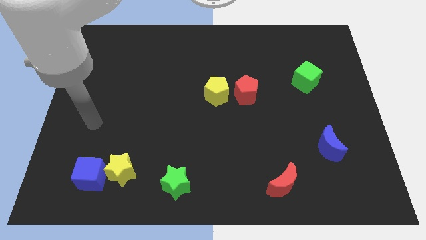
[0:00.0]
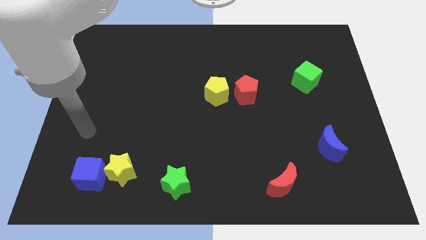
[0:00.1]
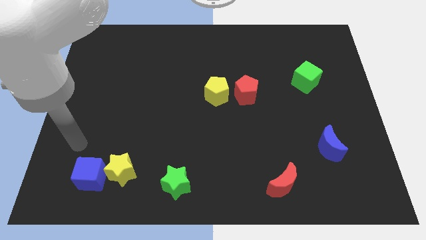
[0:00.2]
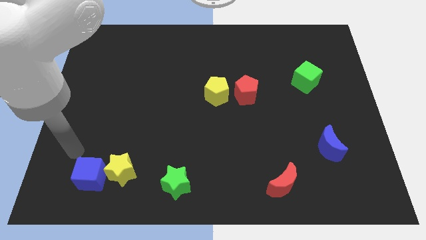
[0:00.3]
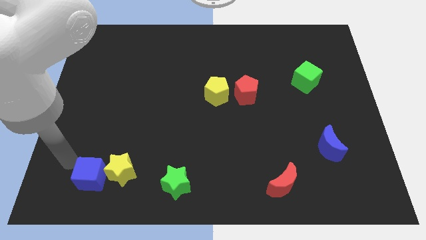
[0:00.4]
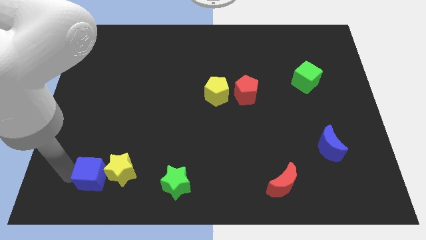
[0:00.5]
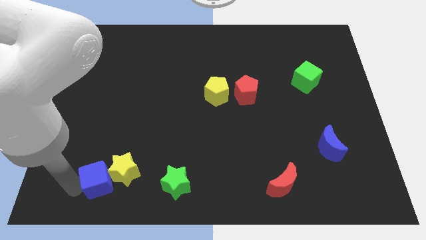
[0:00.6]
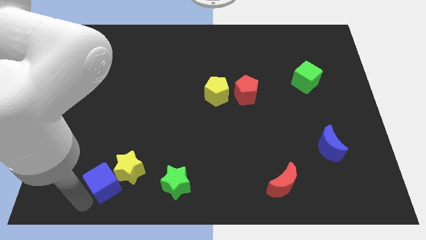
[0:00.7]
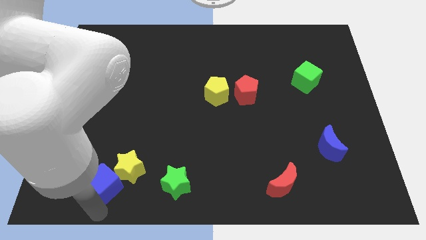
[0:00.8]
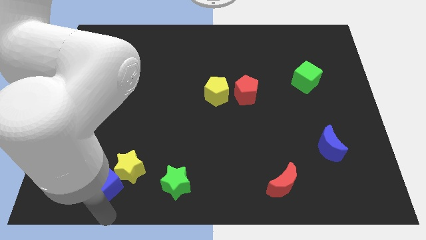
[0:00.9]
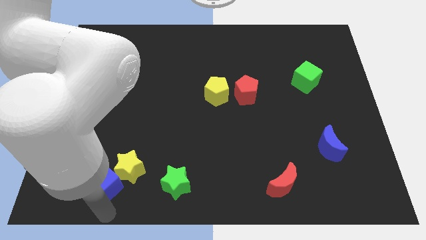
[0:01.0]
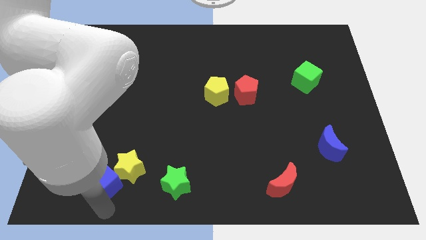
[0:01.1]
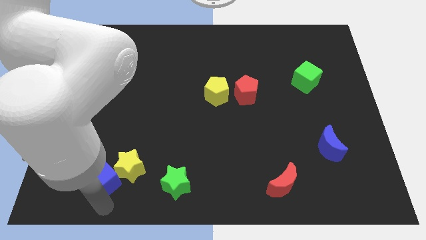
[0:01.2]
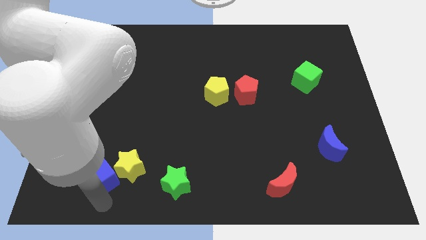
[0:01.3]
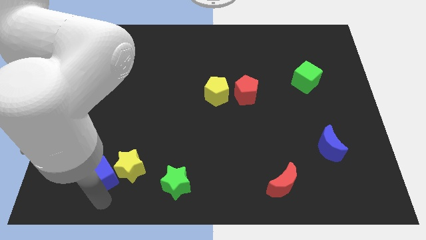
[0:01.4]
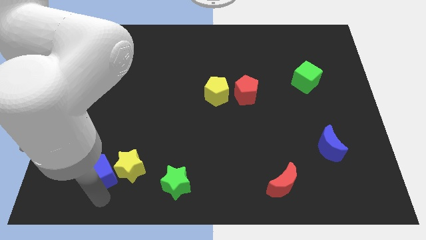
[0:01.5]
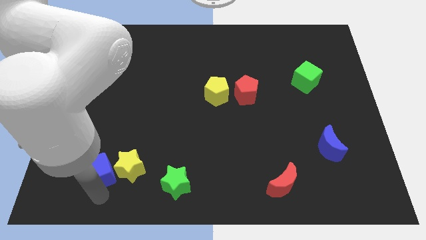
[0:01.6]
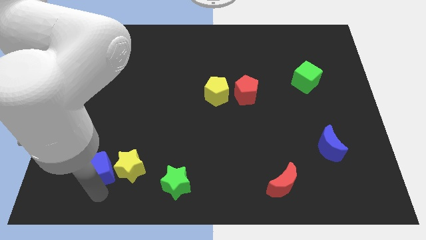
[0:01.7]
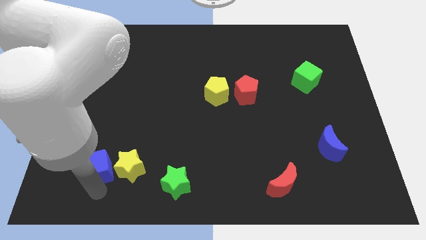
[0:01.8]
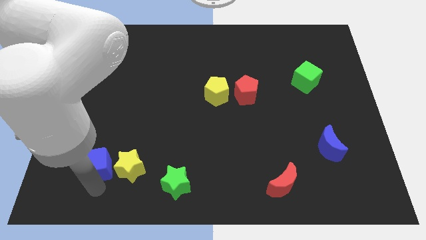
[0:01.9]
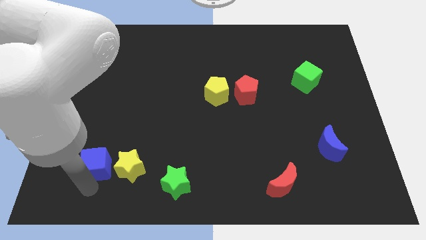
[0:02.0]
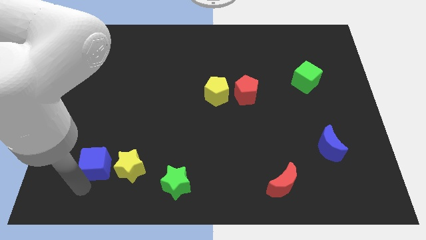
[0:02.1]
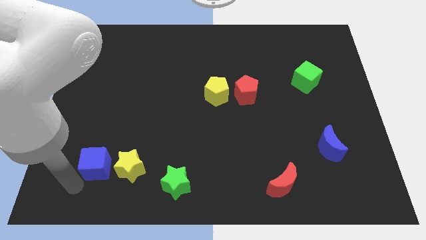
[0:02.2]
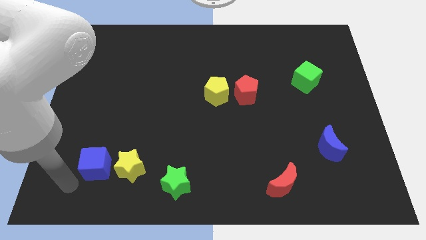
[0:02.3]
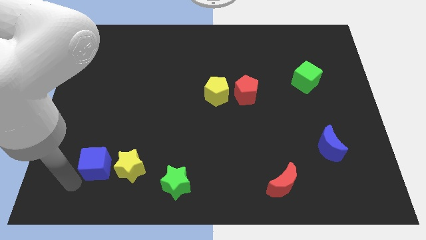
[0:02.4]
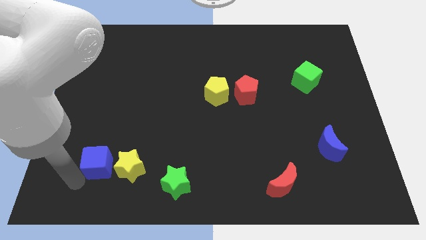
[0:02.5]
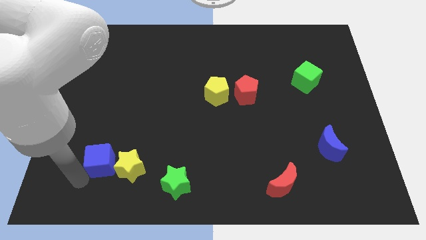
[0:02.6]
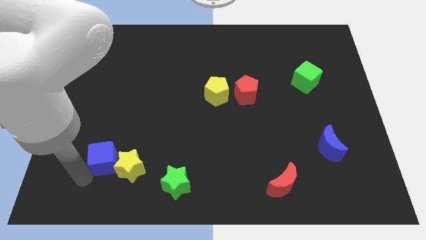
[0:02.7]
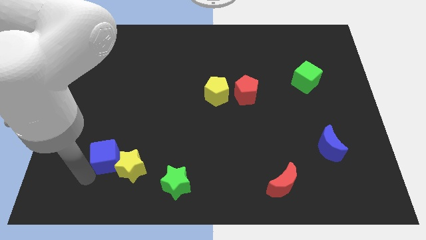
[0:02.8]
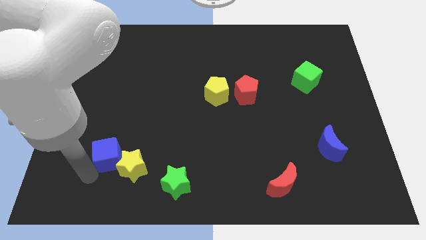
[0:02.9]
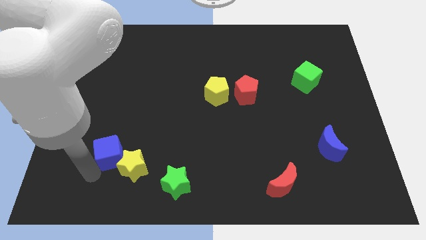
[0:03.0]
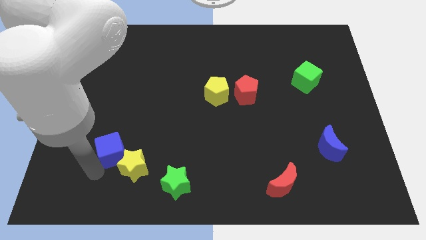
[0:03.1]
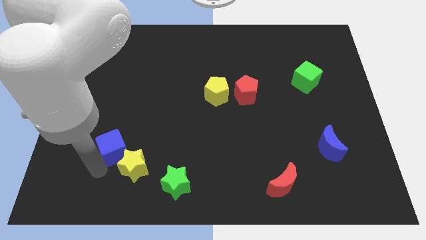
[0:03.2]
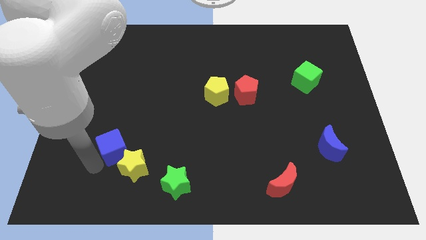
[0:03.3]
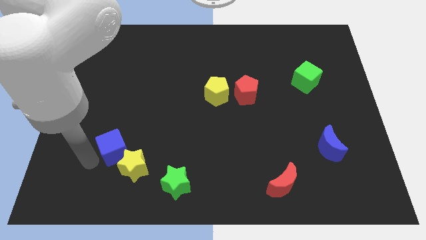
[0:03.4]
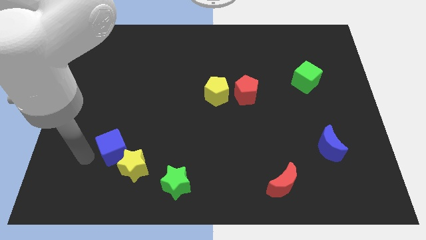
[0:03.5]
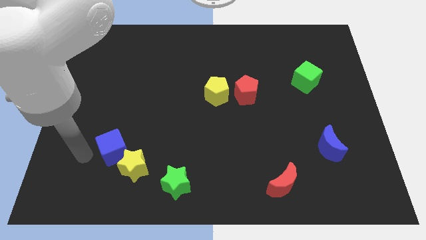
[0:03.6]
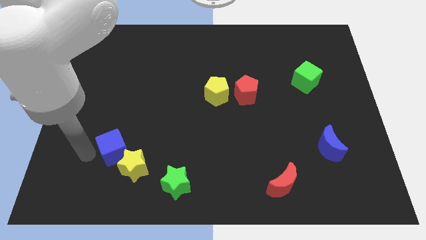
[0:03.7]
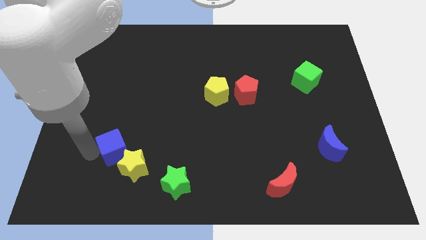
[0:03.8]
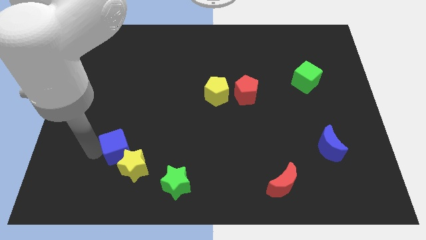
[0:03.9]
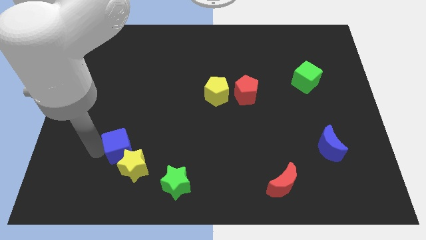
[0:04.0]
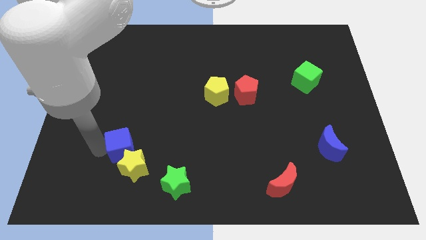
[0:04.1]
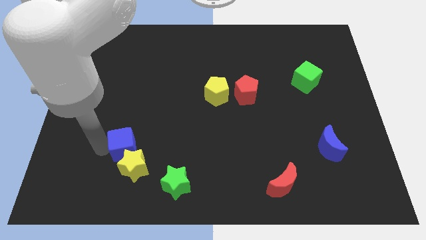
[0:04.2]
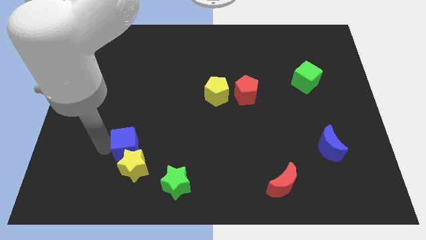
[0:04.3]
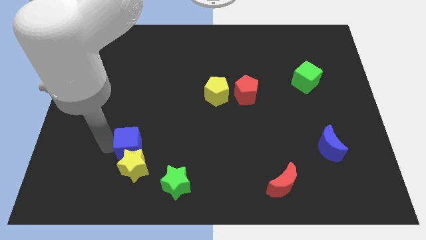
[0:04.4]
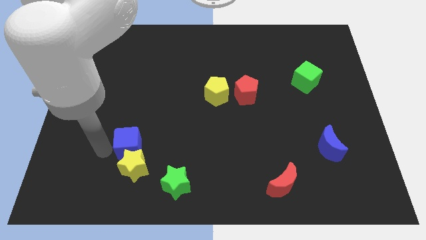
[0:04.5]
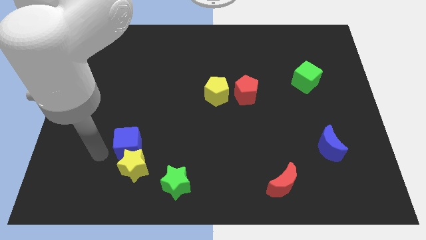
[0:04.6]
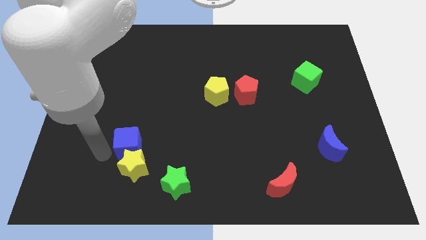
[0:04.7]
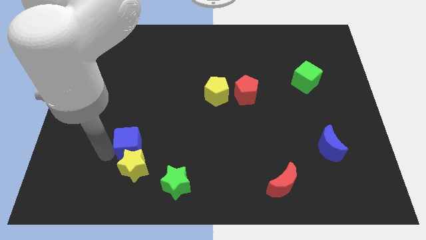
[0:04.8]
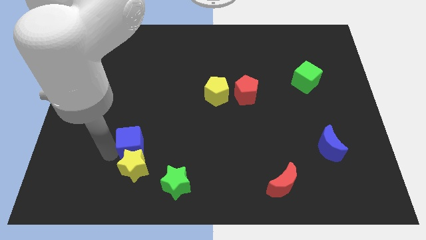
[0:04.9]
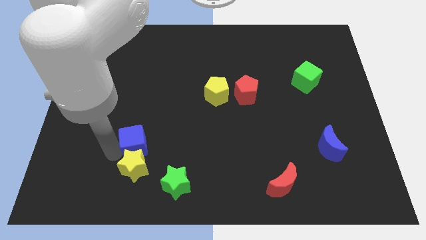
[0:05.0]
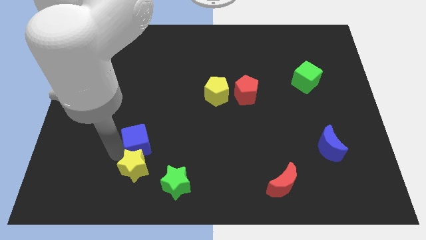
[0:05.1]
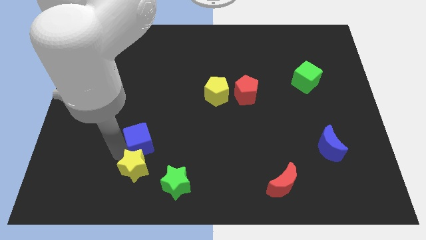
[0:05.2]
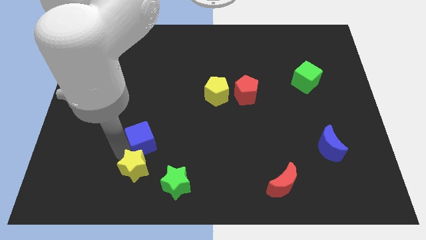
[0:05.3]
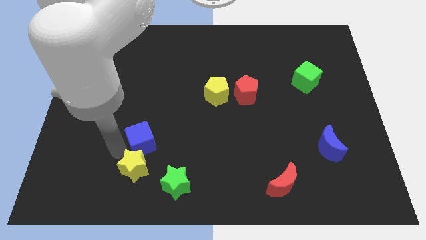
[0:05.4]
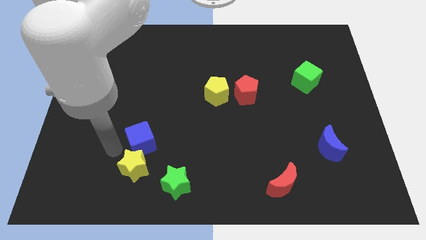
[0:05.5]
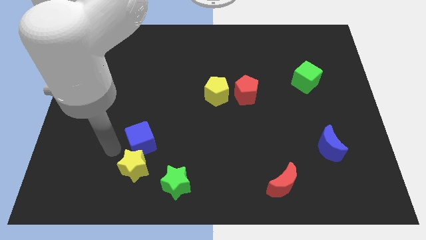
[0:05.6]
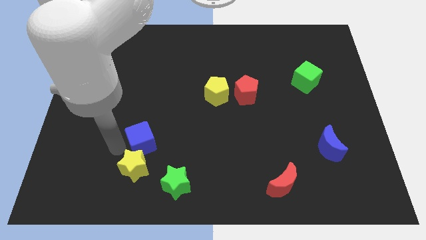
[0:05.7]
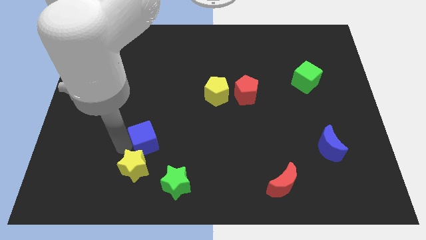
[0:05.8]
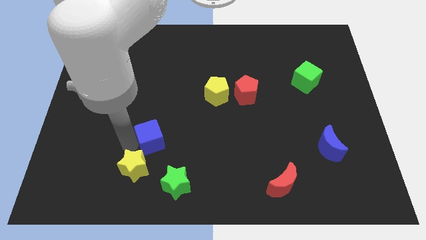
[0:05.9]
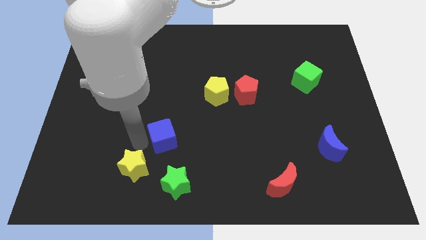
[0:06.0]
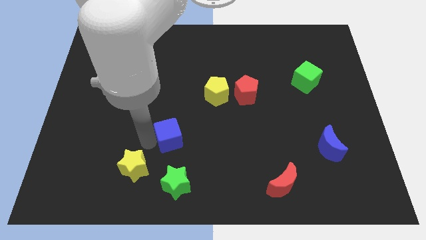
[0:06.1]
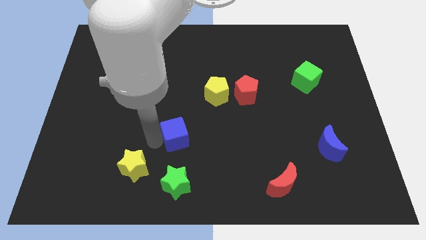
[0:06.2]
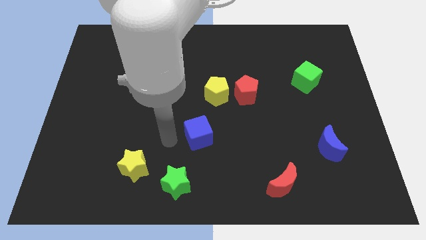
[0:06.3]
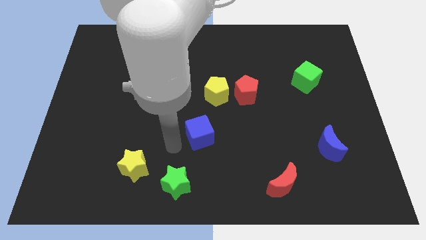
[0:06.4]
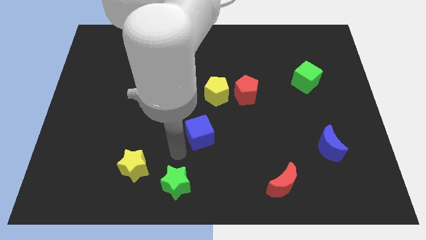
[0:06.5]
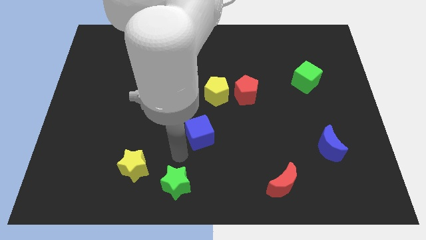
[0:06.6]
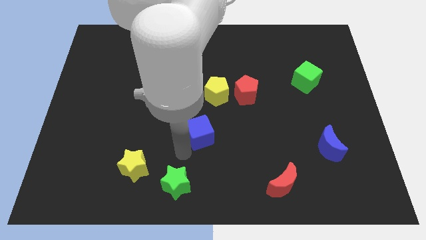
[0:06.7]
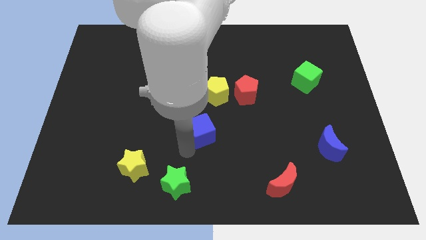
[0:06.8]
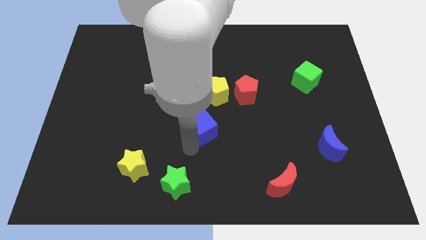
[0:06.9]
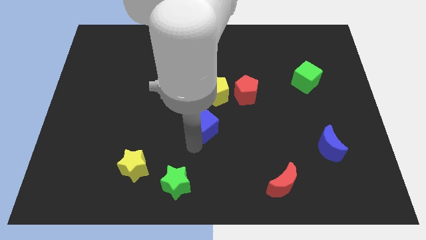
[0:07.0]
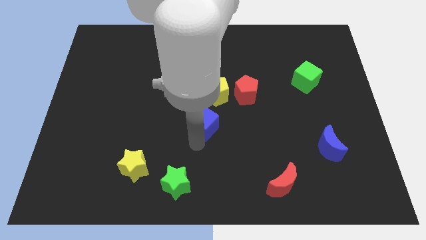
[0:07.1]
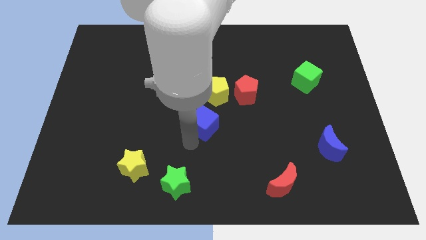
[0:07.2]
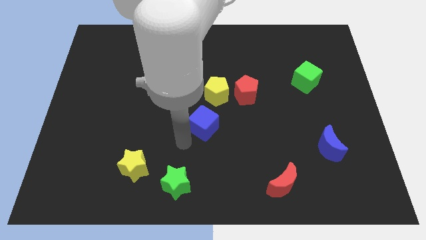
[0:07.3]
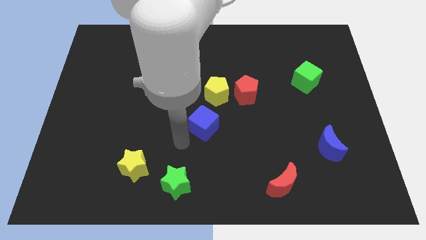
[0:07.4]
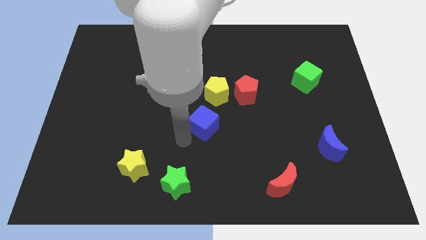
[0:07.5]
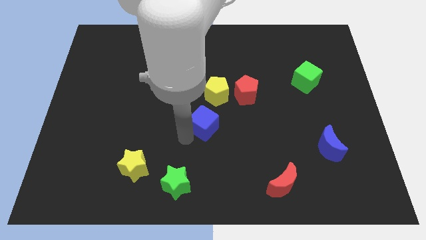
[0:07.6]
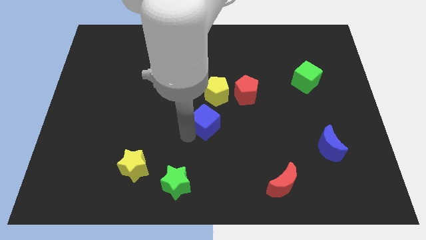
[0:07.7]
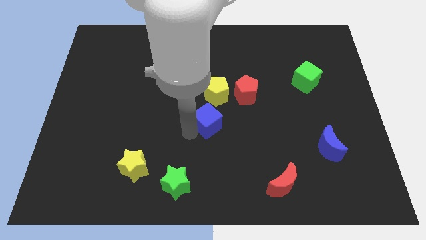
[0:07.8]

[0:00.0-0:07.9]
push the blue cube to the bottom left of the red pentagon

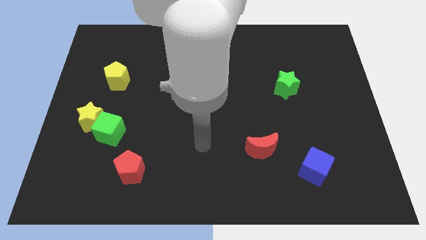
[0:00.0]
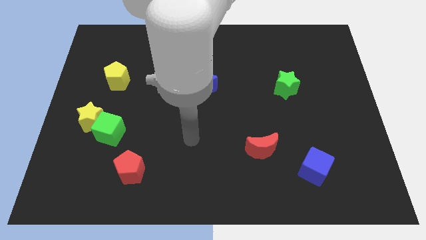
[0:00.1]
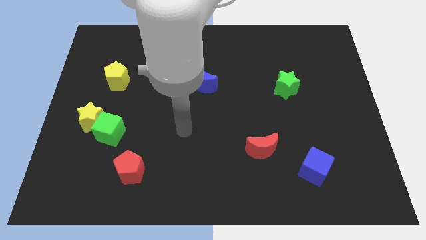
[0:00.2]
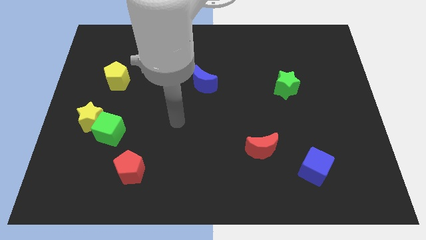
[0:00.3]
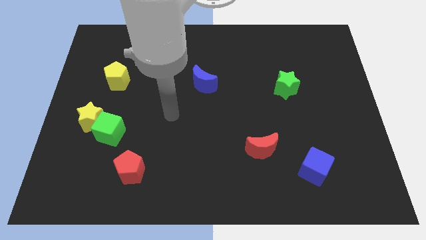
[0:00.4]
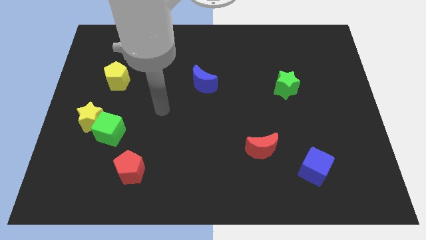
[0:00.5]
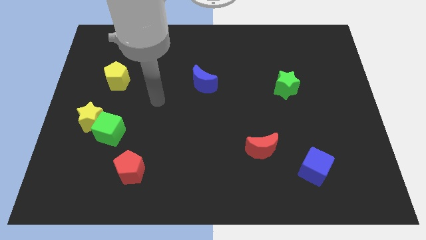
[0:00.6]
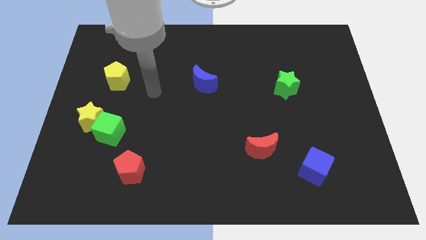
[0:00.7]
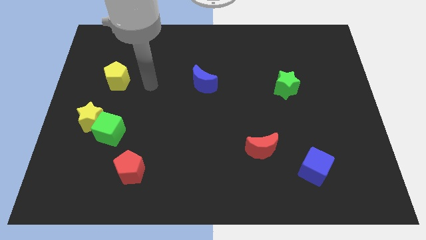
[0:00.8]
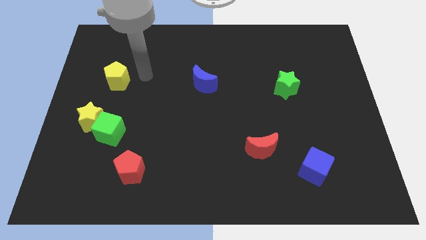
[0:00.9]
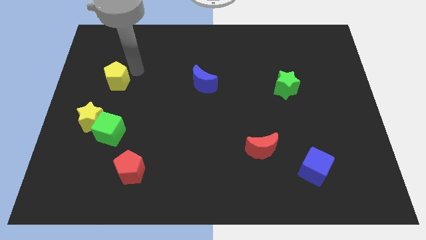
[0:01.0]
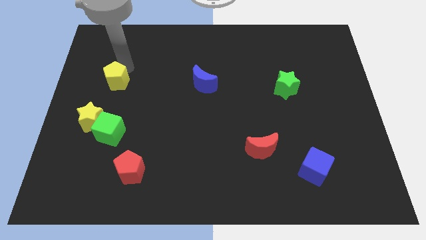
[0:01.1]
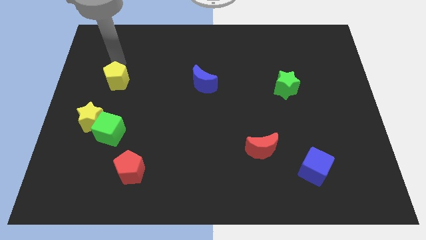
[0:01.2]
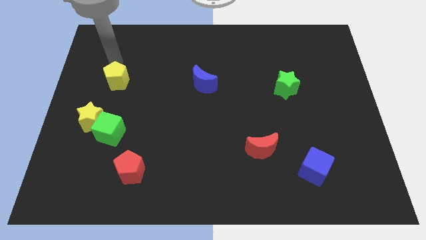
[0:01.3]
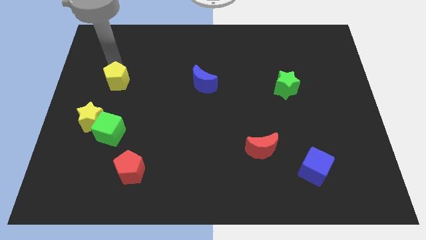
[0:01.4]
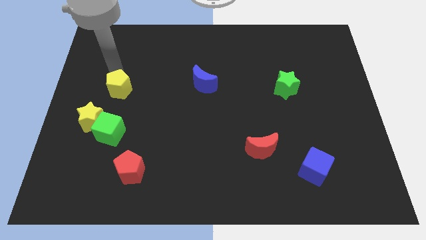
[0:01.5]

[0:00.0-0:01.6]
move the yellow pentagon to the top right side of the yellow star
